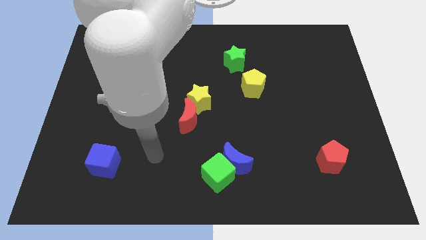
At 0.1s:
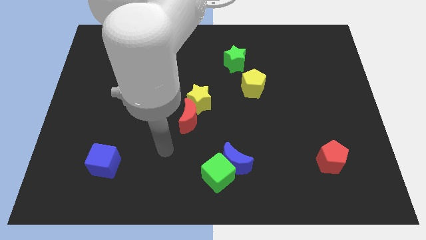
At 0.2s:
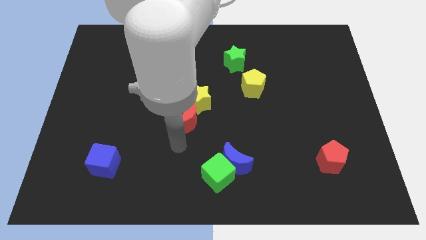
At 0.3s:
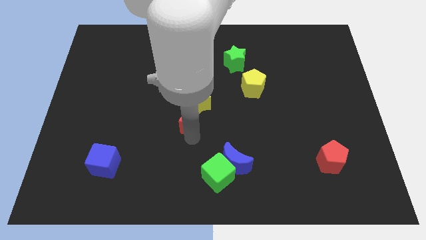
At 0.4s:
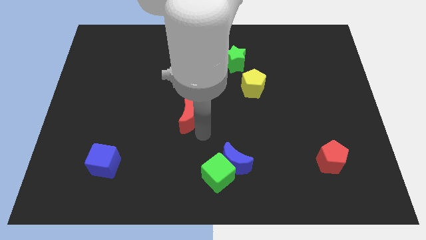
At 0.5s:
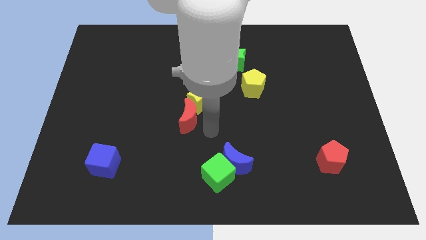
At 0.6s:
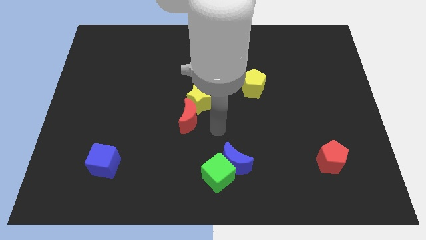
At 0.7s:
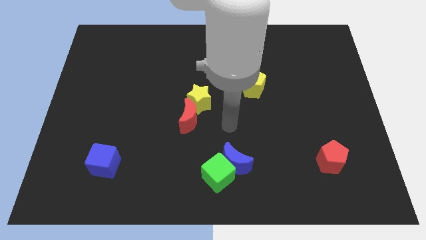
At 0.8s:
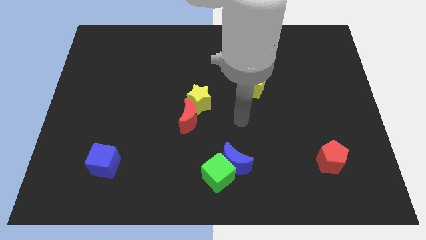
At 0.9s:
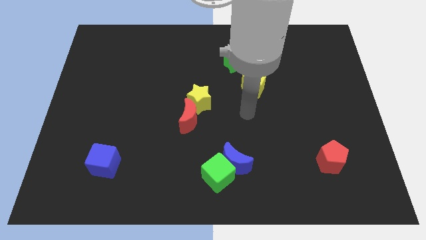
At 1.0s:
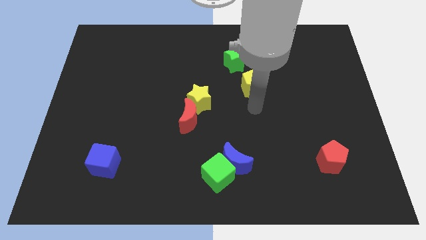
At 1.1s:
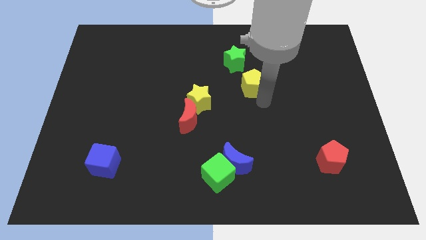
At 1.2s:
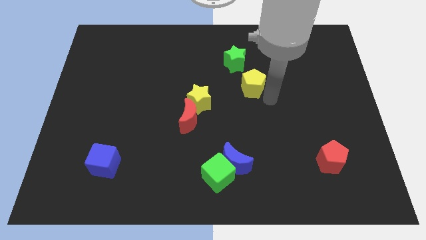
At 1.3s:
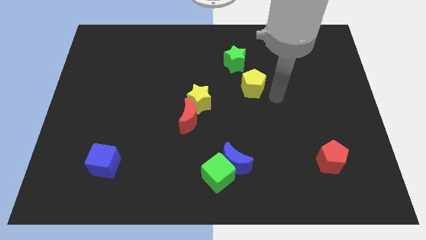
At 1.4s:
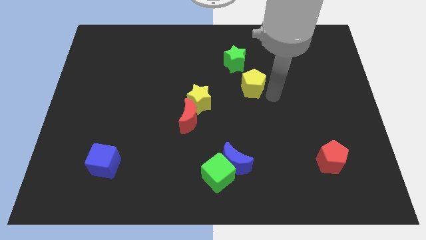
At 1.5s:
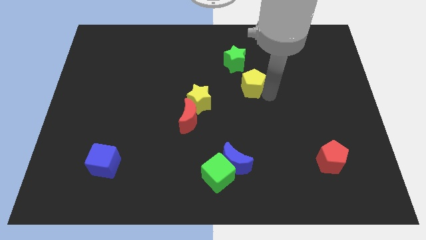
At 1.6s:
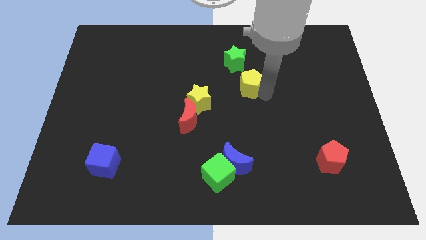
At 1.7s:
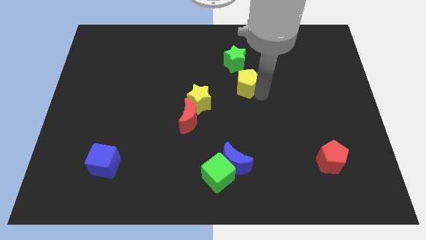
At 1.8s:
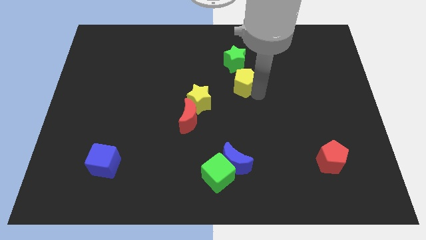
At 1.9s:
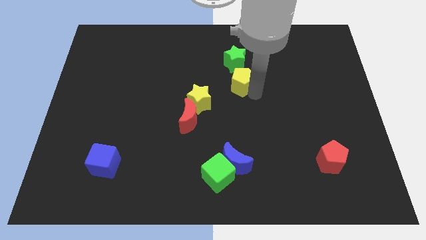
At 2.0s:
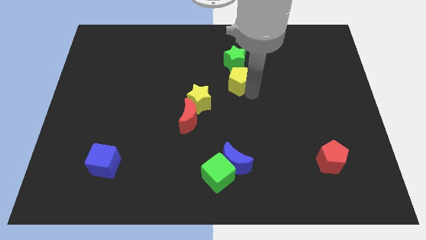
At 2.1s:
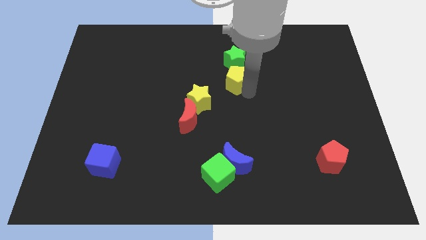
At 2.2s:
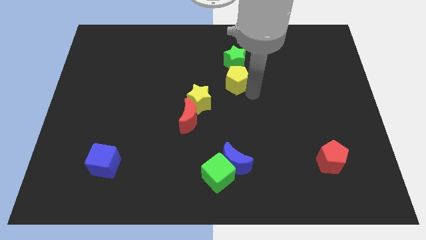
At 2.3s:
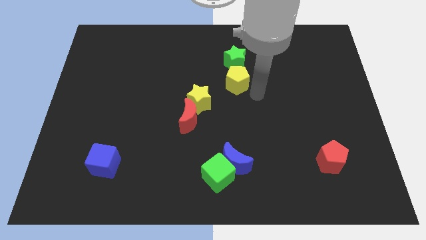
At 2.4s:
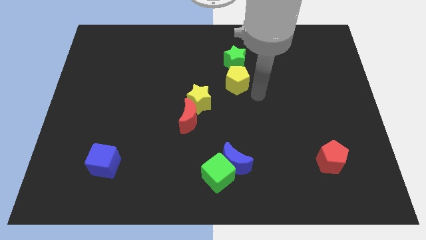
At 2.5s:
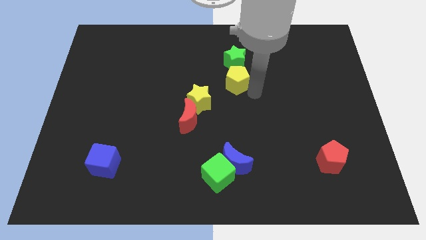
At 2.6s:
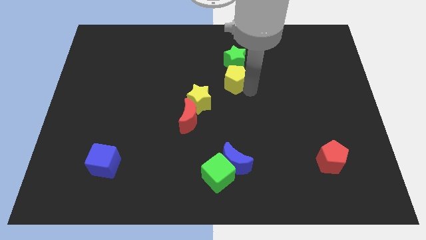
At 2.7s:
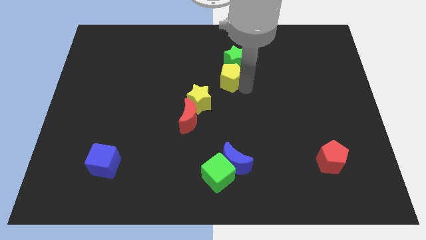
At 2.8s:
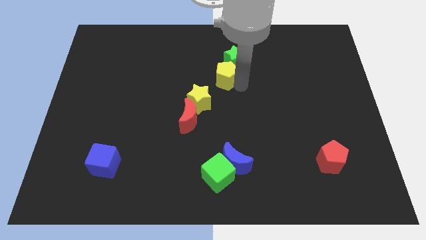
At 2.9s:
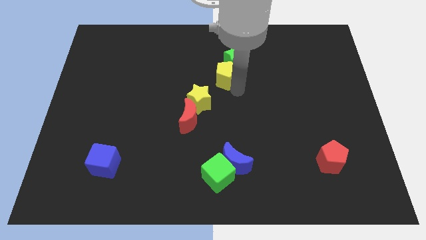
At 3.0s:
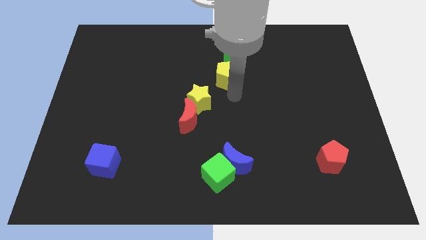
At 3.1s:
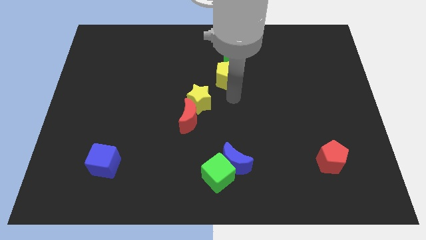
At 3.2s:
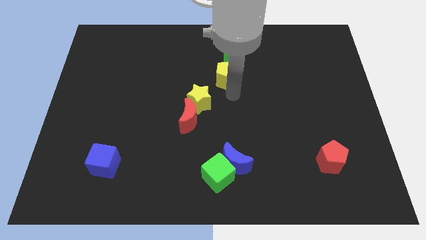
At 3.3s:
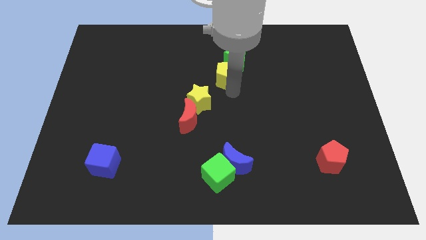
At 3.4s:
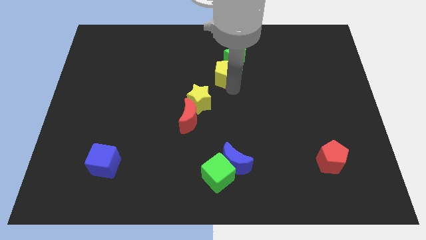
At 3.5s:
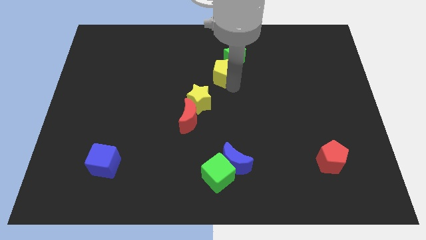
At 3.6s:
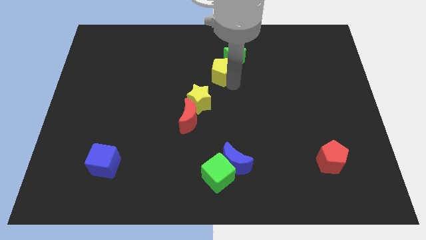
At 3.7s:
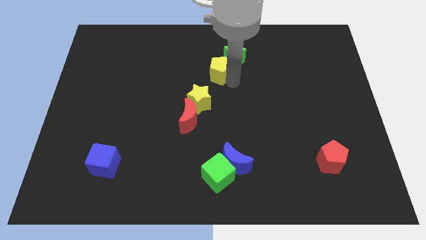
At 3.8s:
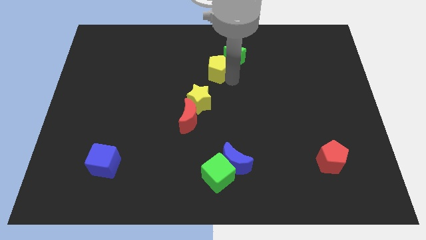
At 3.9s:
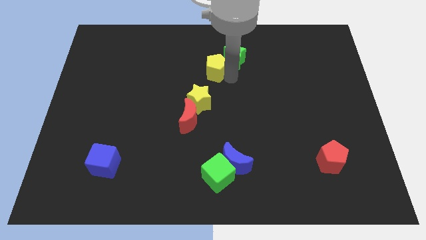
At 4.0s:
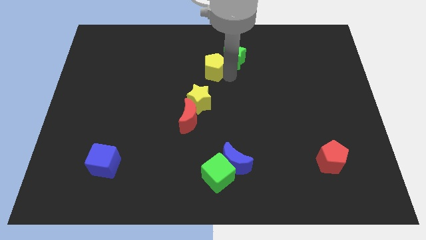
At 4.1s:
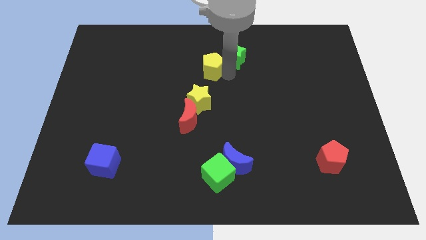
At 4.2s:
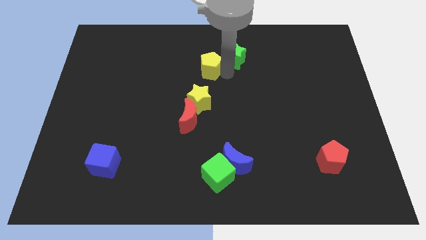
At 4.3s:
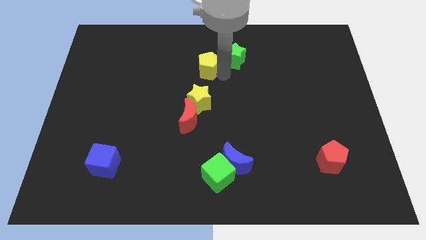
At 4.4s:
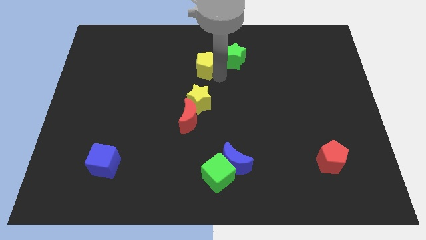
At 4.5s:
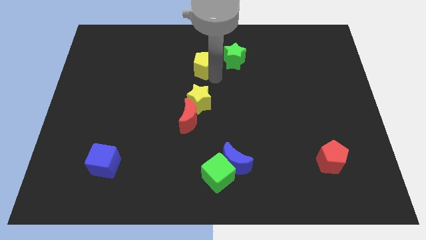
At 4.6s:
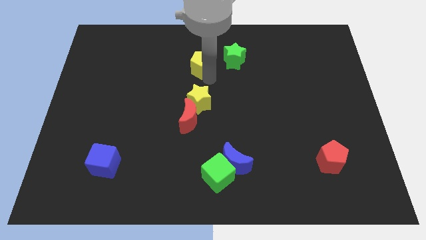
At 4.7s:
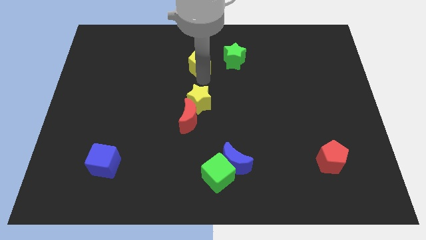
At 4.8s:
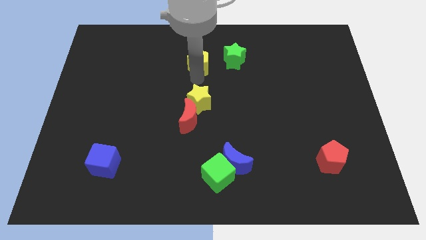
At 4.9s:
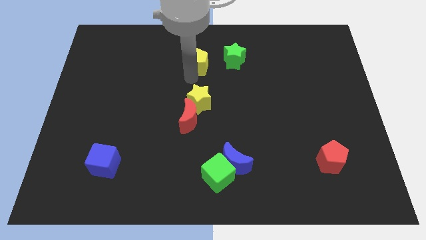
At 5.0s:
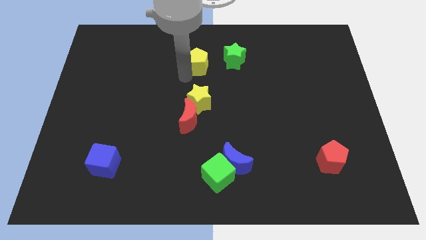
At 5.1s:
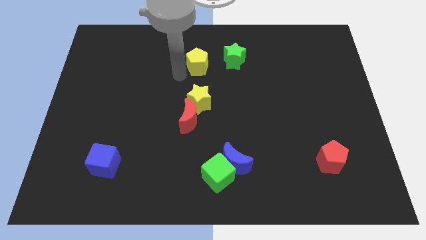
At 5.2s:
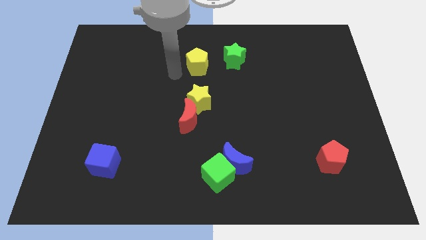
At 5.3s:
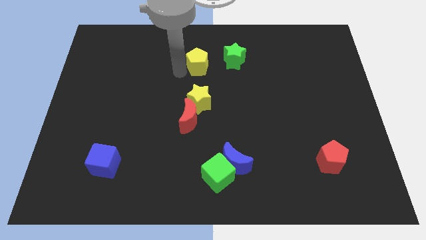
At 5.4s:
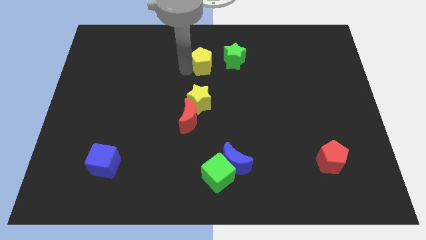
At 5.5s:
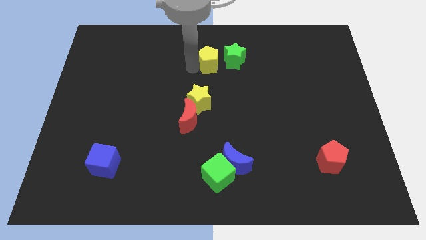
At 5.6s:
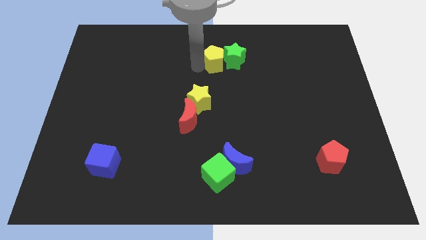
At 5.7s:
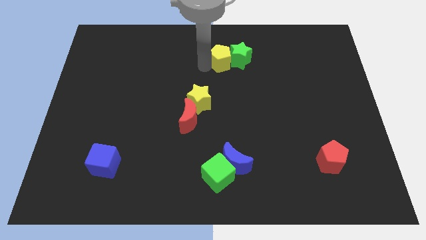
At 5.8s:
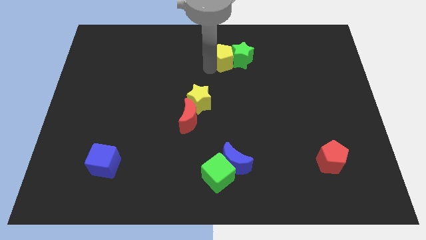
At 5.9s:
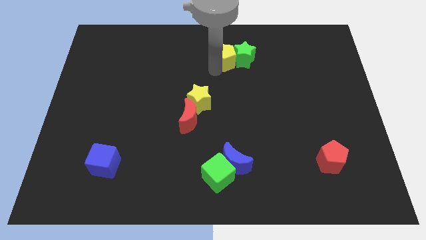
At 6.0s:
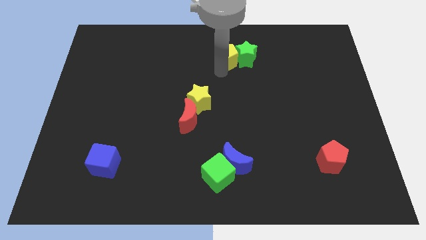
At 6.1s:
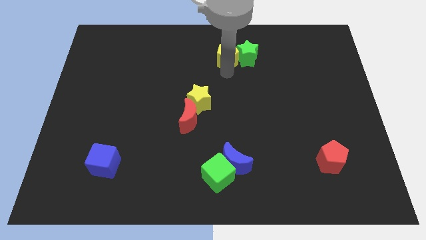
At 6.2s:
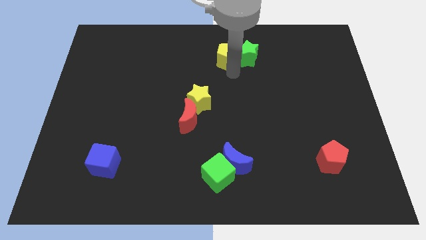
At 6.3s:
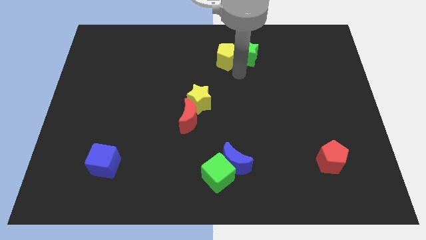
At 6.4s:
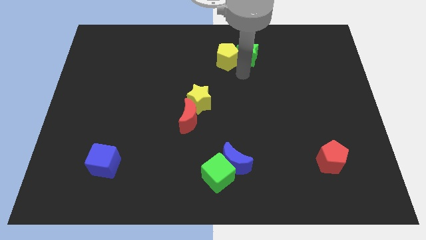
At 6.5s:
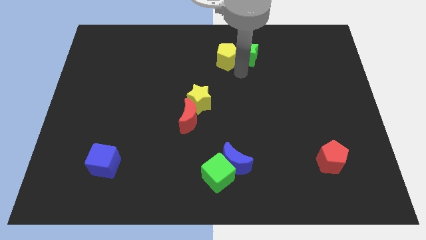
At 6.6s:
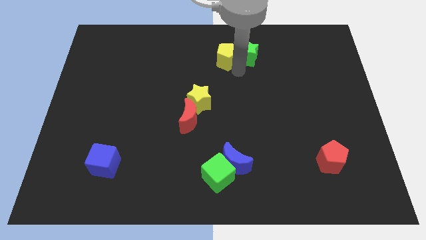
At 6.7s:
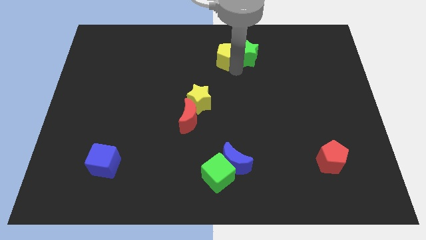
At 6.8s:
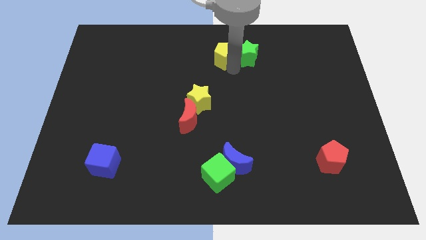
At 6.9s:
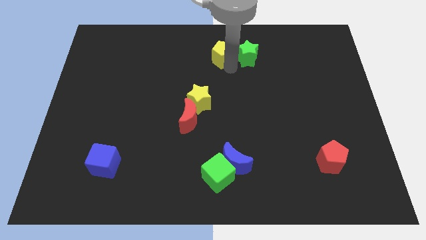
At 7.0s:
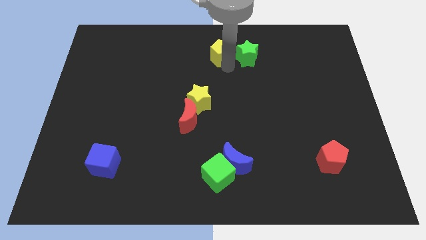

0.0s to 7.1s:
slide the yellow pentagon to the top
